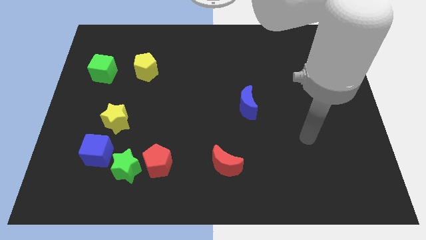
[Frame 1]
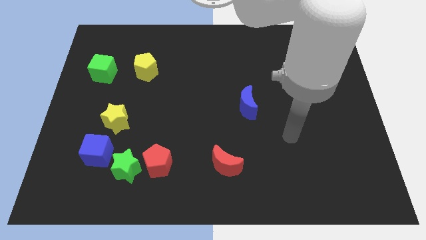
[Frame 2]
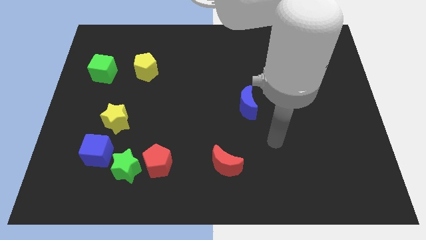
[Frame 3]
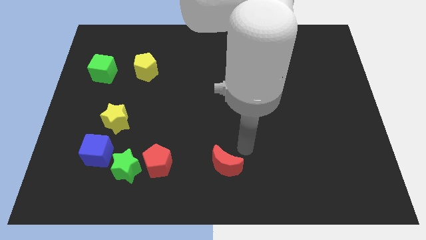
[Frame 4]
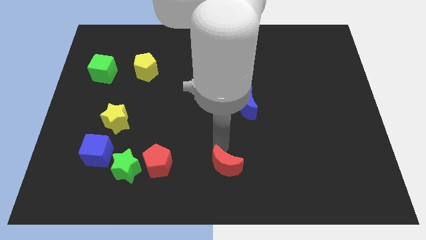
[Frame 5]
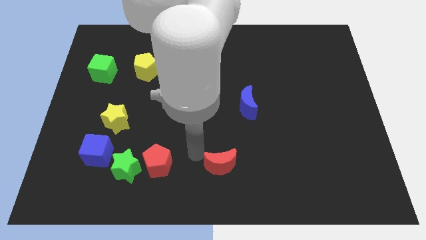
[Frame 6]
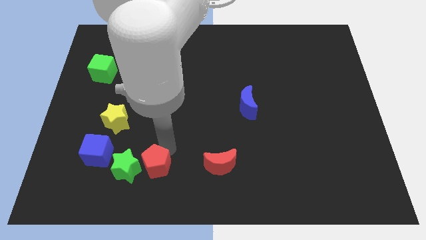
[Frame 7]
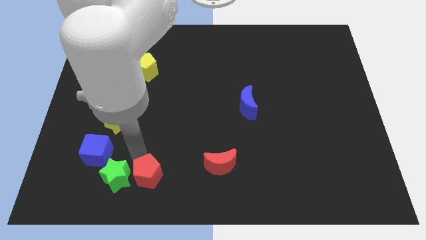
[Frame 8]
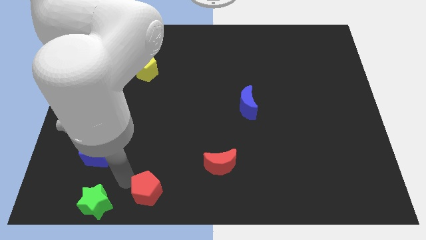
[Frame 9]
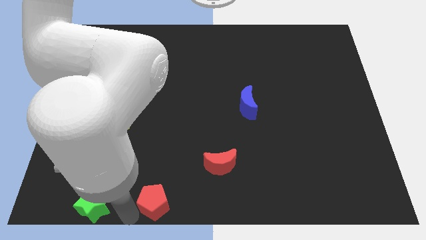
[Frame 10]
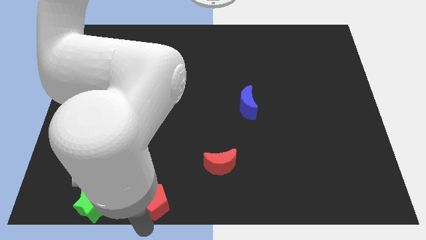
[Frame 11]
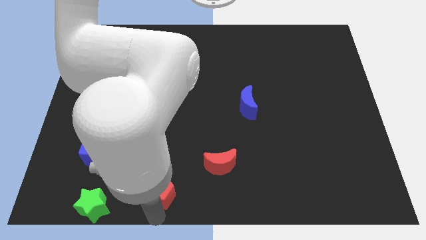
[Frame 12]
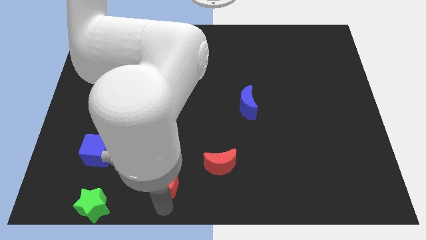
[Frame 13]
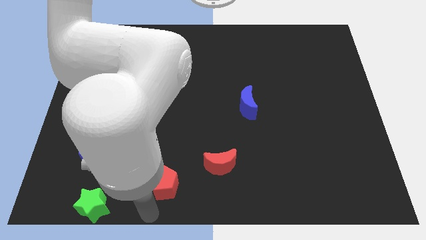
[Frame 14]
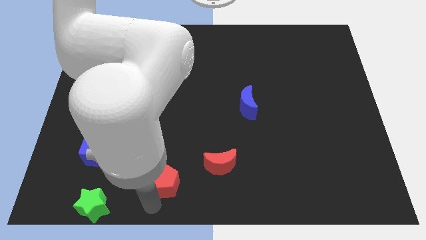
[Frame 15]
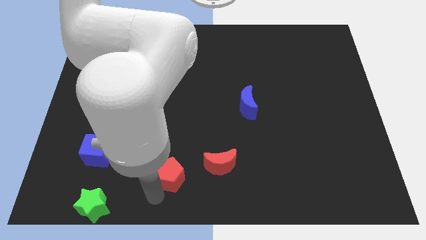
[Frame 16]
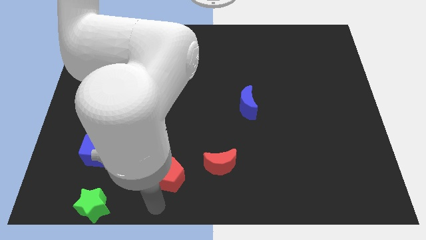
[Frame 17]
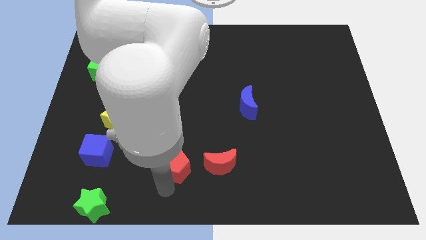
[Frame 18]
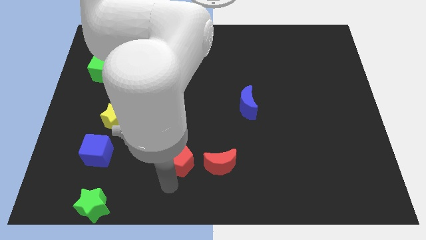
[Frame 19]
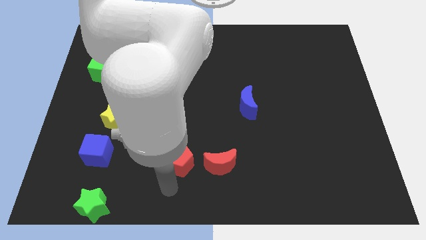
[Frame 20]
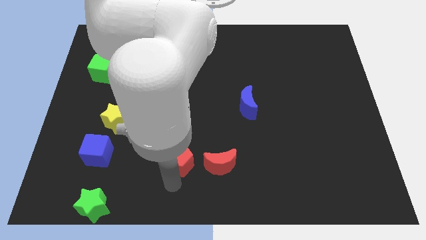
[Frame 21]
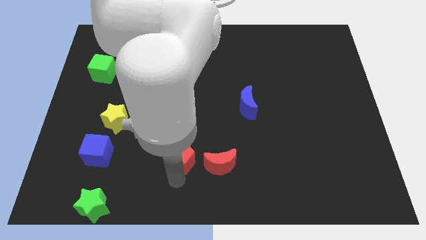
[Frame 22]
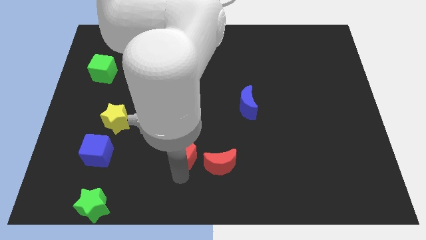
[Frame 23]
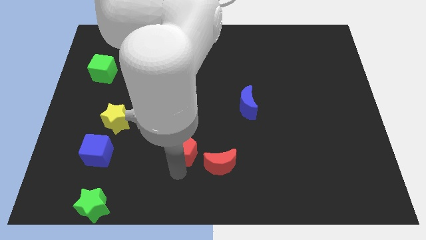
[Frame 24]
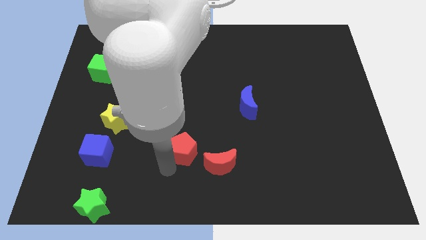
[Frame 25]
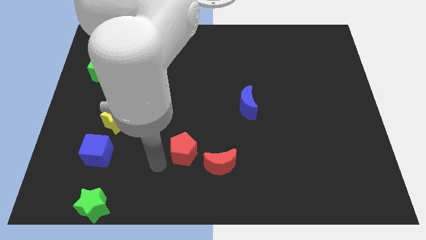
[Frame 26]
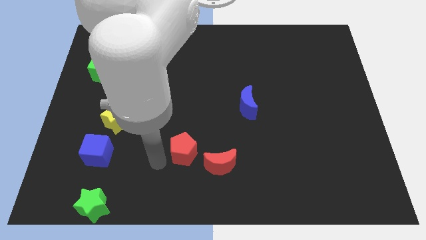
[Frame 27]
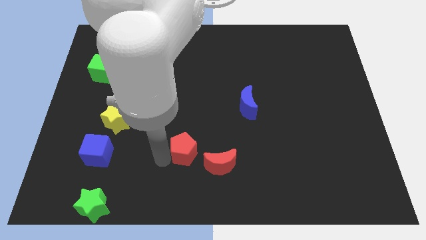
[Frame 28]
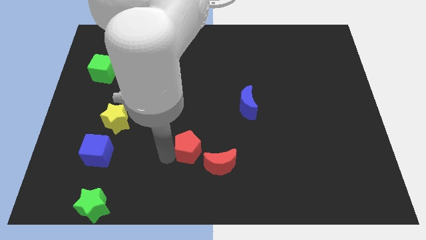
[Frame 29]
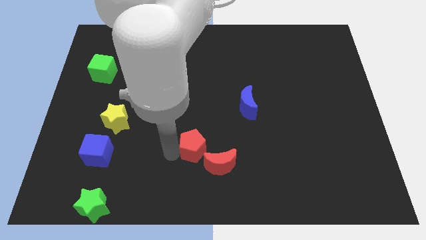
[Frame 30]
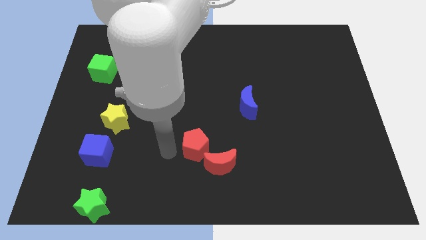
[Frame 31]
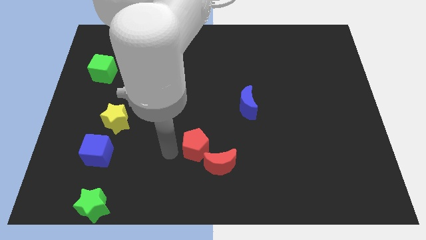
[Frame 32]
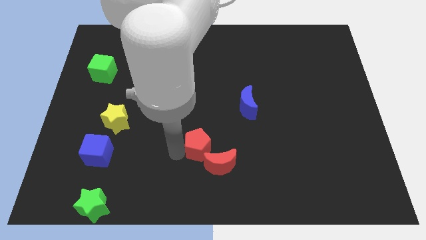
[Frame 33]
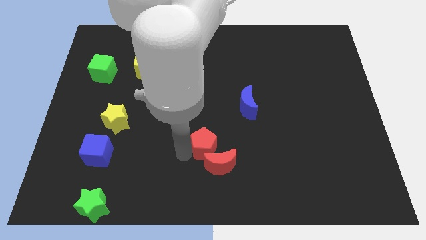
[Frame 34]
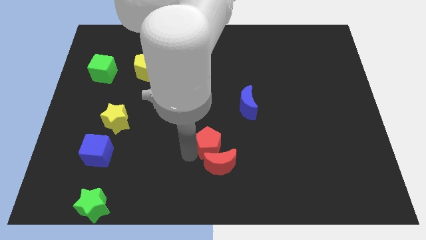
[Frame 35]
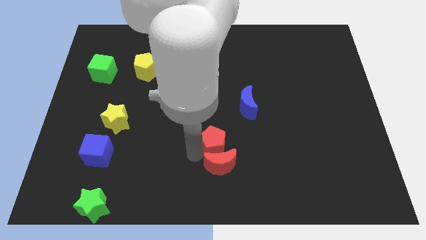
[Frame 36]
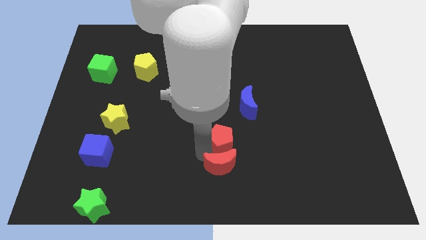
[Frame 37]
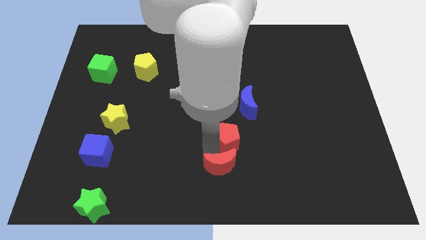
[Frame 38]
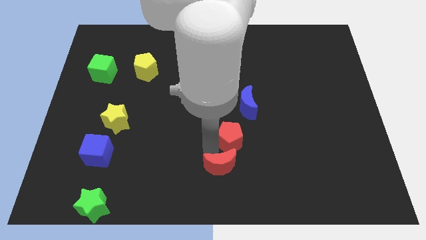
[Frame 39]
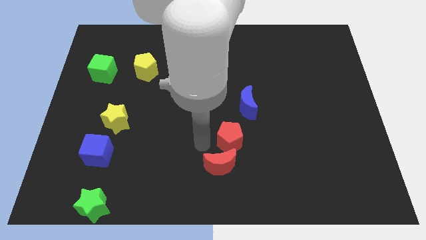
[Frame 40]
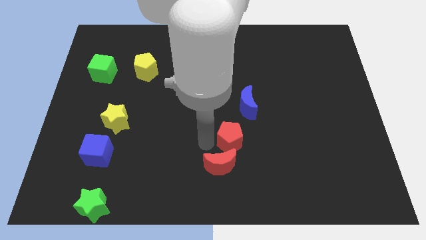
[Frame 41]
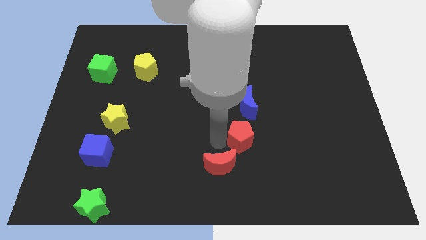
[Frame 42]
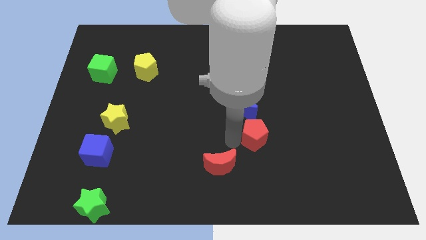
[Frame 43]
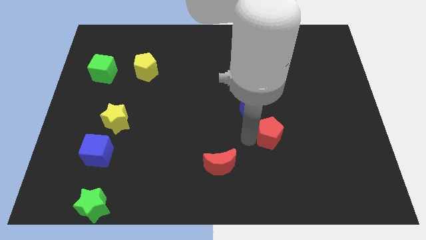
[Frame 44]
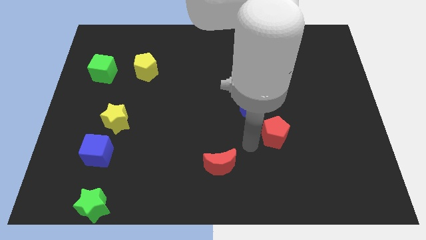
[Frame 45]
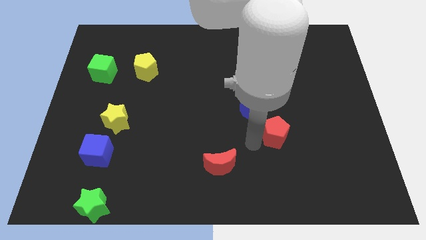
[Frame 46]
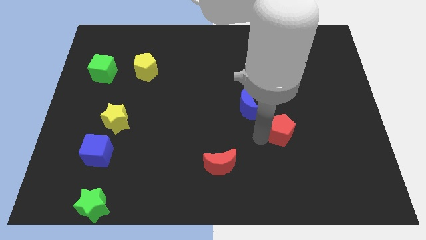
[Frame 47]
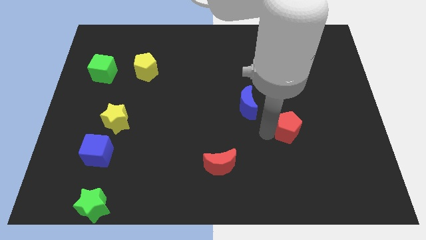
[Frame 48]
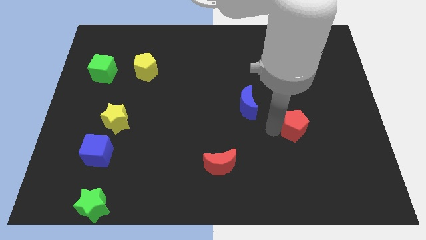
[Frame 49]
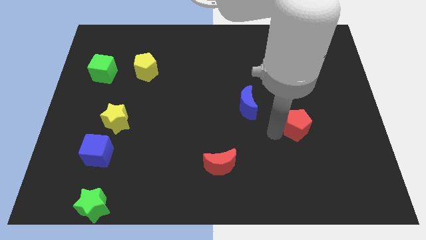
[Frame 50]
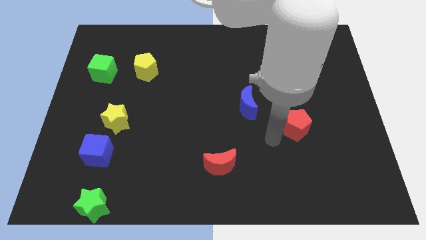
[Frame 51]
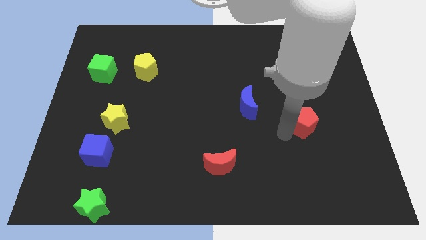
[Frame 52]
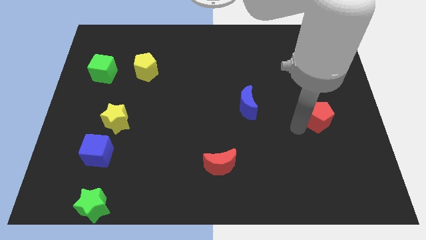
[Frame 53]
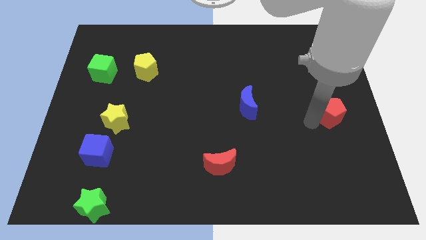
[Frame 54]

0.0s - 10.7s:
slide the red pentagon to the right side of the board

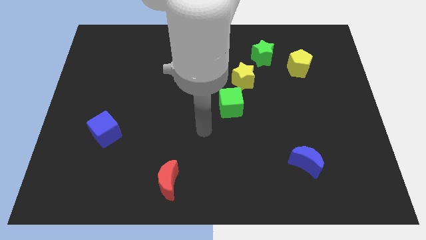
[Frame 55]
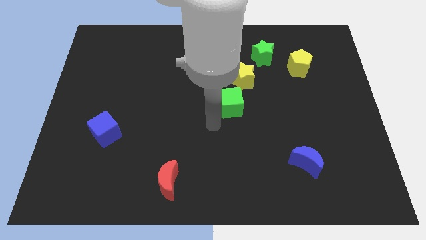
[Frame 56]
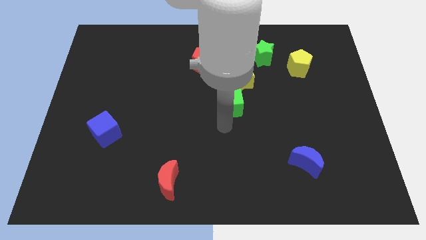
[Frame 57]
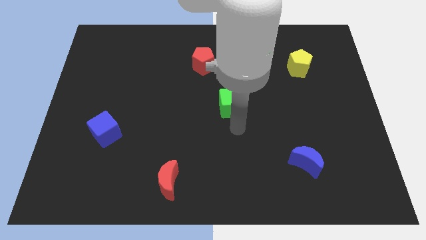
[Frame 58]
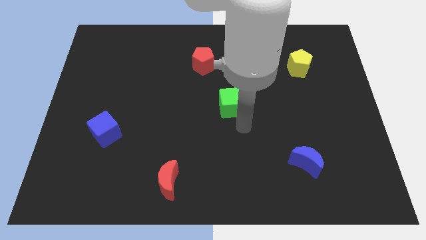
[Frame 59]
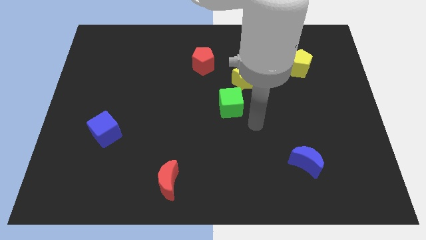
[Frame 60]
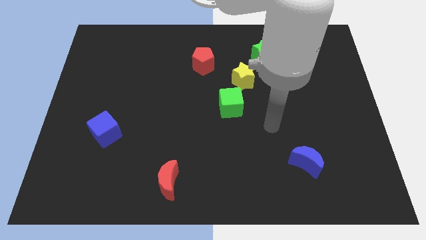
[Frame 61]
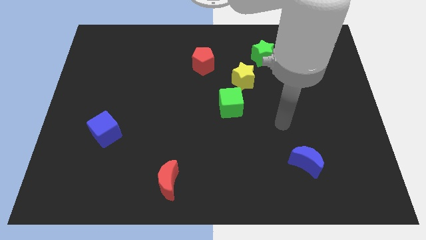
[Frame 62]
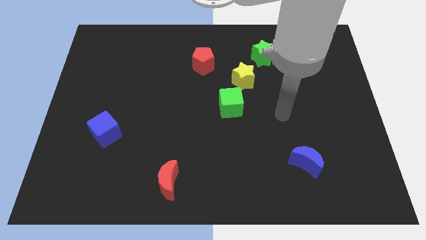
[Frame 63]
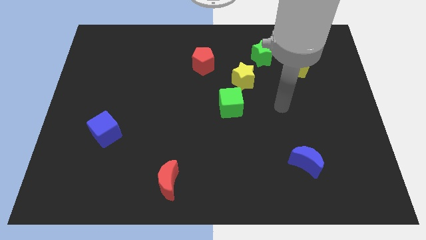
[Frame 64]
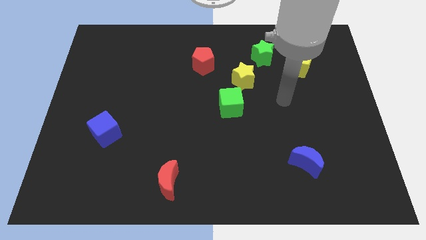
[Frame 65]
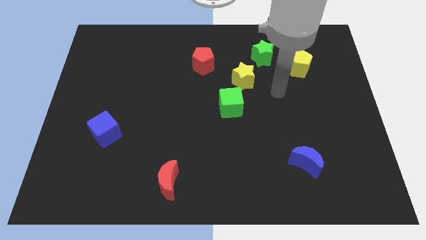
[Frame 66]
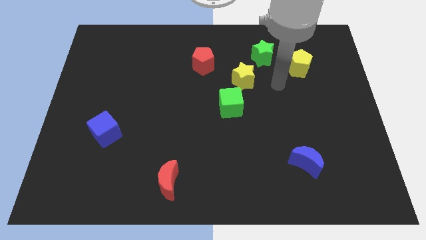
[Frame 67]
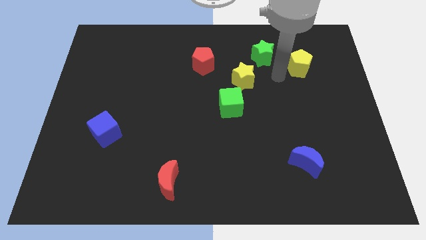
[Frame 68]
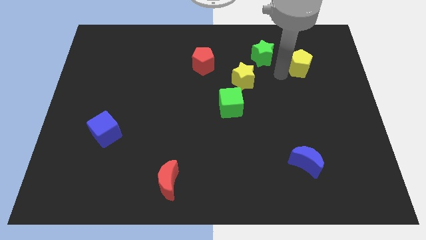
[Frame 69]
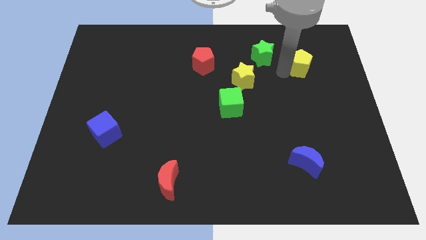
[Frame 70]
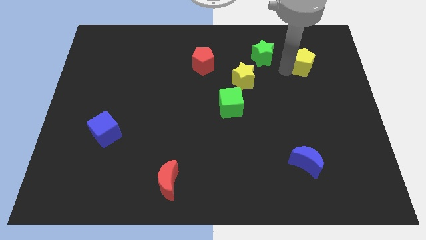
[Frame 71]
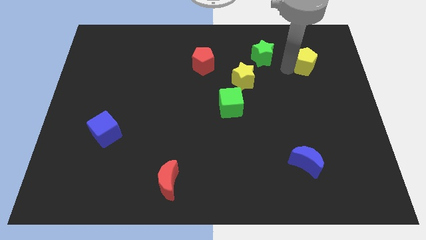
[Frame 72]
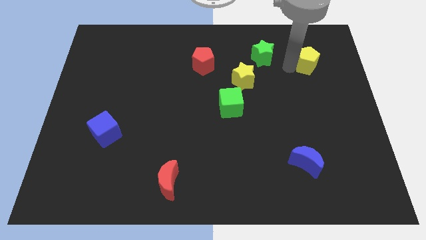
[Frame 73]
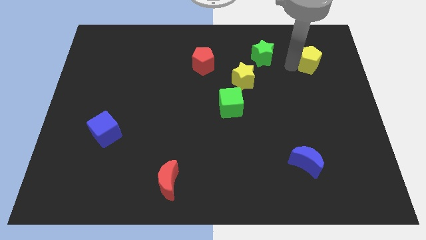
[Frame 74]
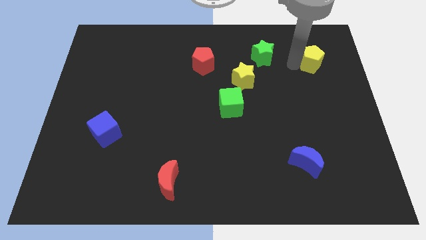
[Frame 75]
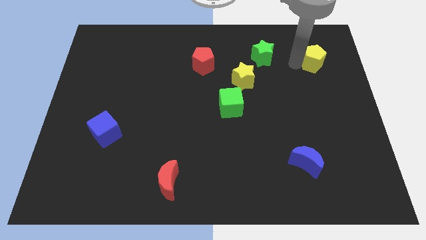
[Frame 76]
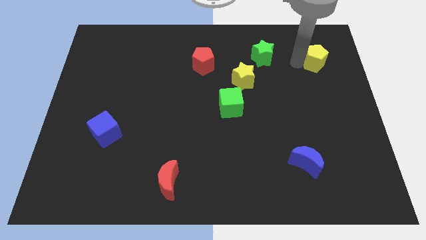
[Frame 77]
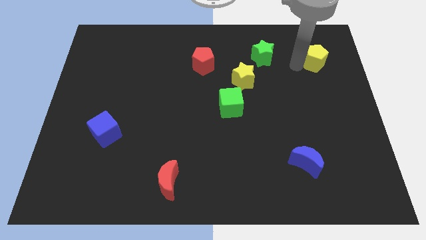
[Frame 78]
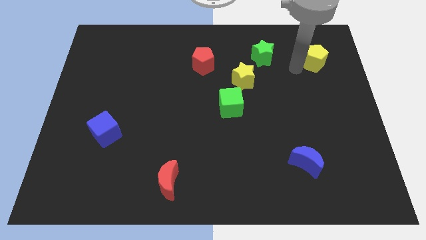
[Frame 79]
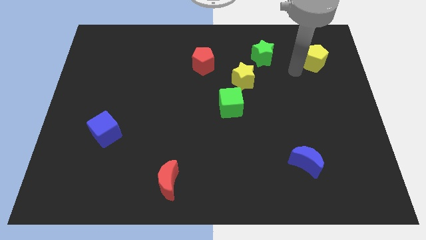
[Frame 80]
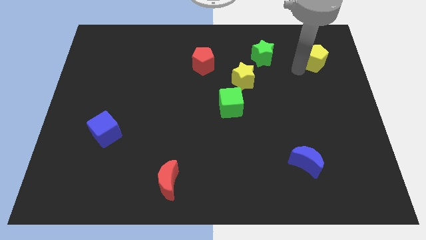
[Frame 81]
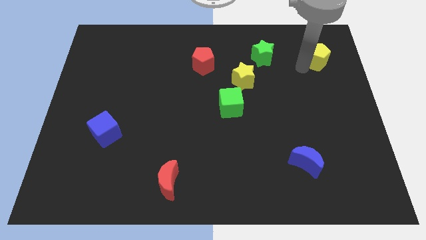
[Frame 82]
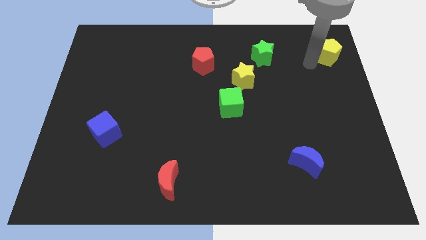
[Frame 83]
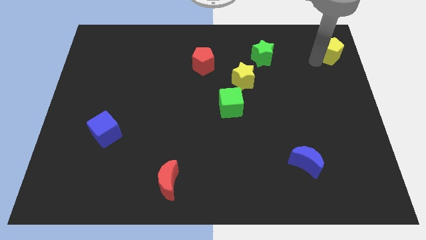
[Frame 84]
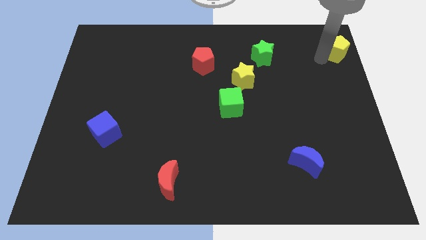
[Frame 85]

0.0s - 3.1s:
slide the yellow pentagon to the top right corner
